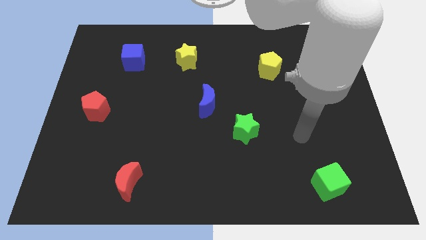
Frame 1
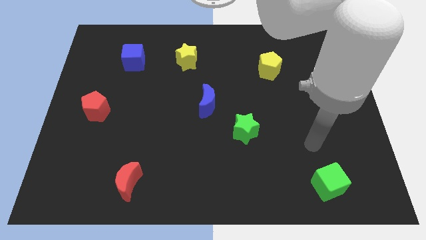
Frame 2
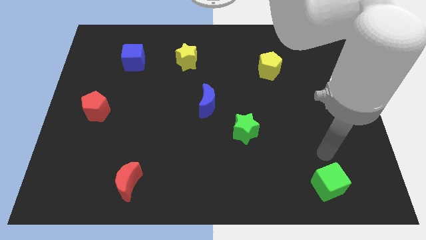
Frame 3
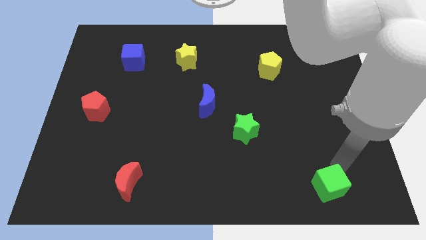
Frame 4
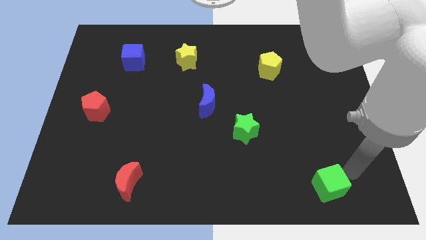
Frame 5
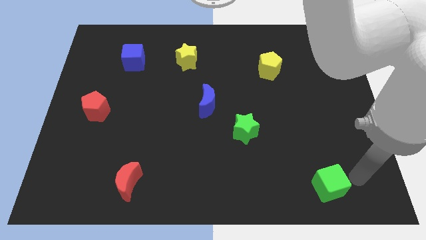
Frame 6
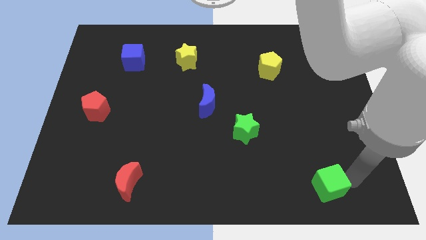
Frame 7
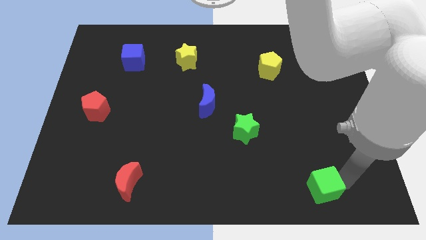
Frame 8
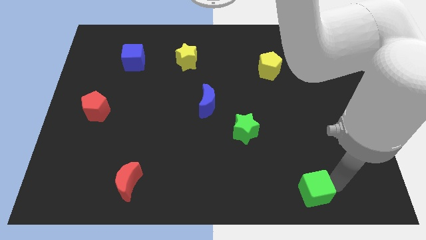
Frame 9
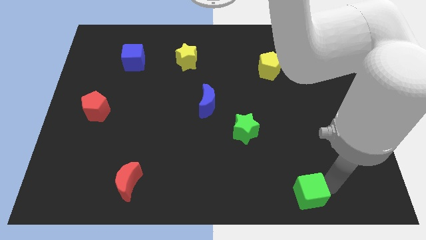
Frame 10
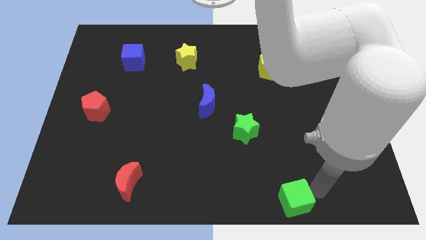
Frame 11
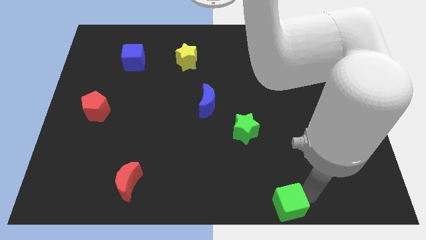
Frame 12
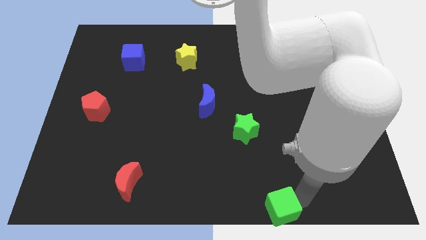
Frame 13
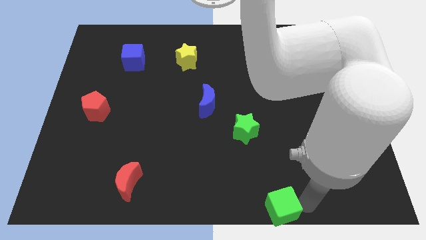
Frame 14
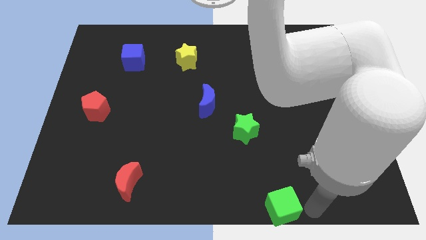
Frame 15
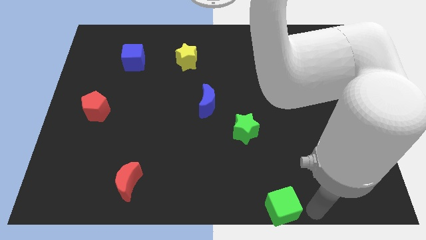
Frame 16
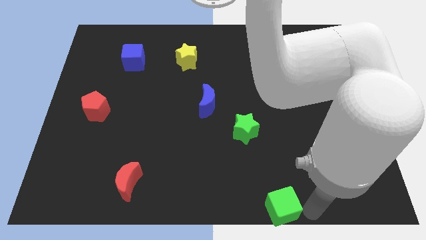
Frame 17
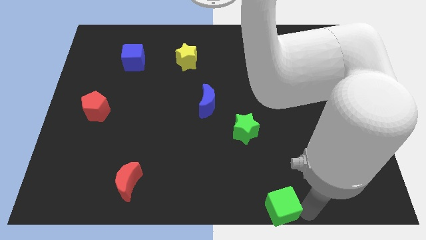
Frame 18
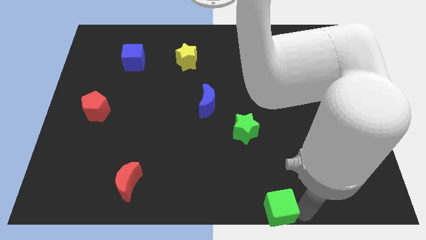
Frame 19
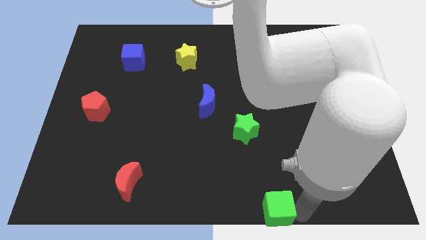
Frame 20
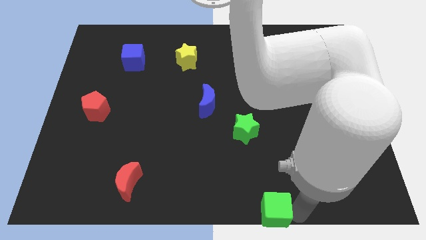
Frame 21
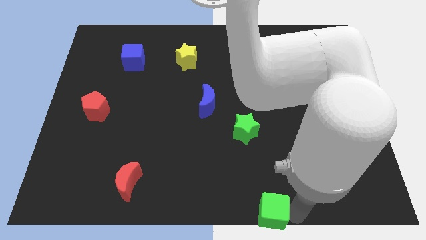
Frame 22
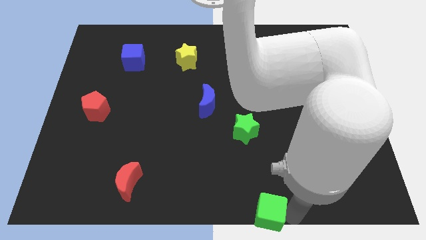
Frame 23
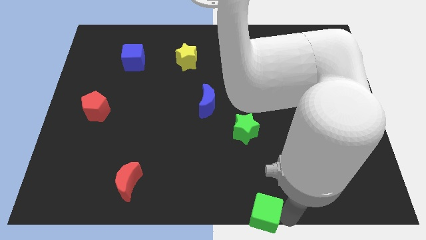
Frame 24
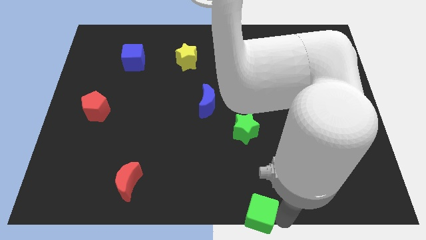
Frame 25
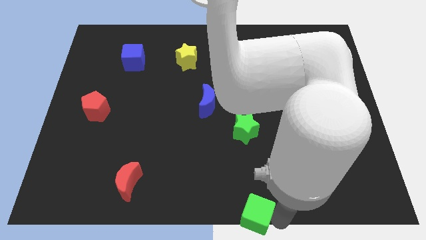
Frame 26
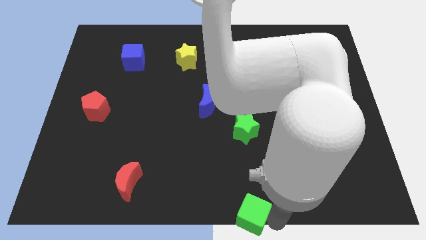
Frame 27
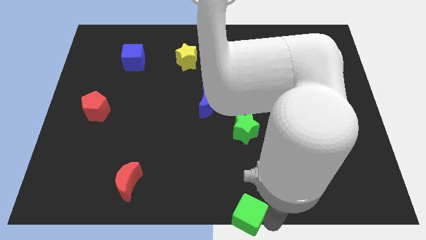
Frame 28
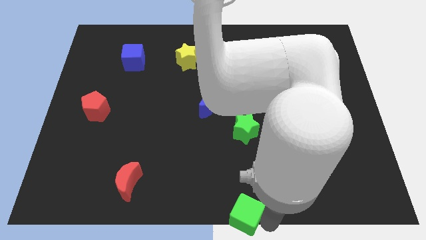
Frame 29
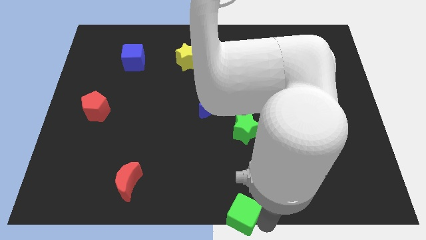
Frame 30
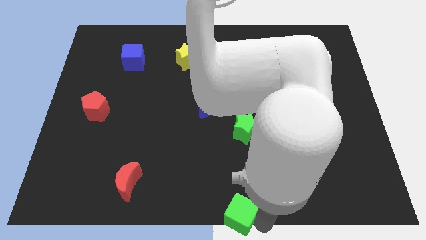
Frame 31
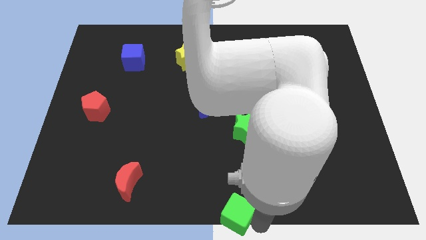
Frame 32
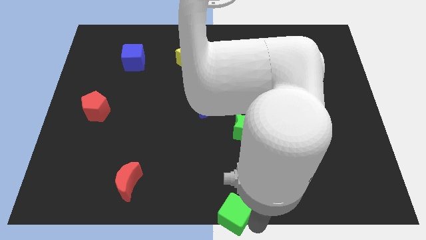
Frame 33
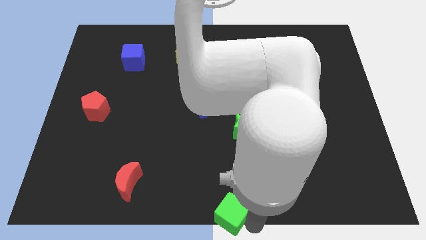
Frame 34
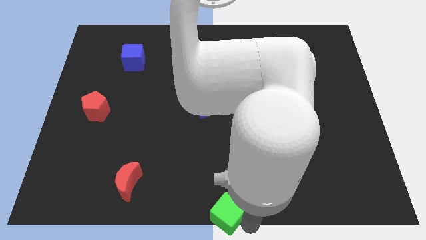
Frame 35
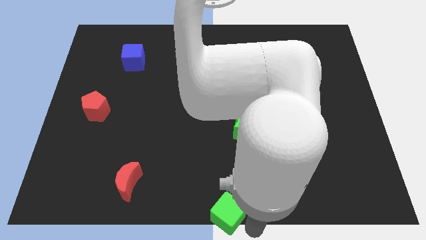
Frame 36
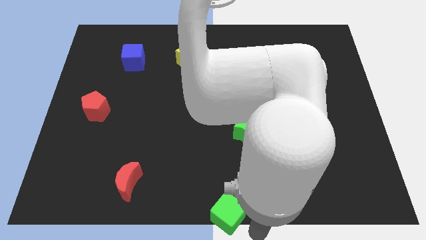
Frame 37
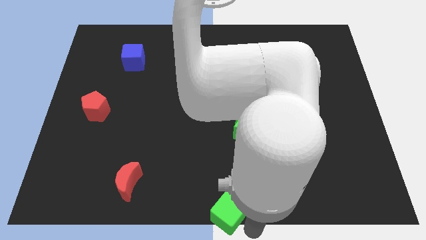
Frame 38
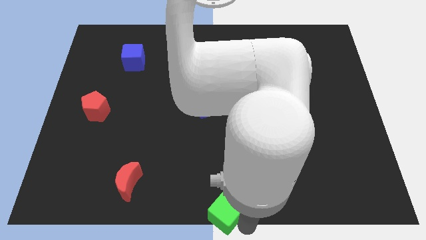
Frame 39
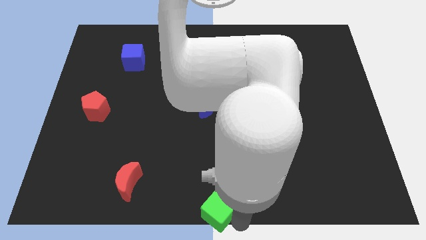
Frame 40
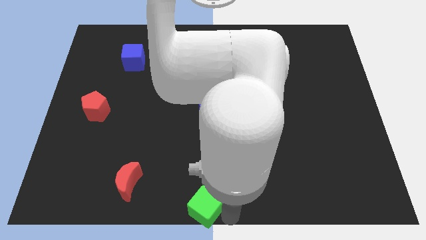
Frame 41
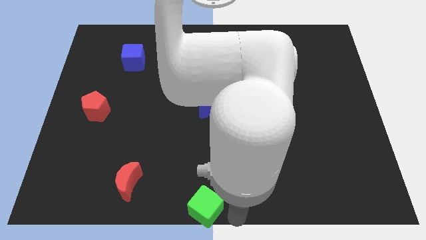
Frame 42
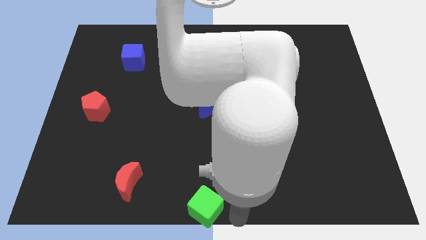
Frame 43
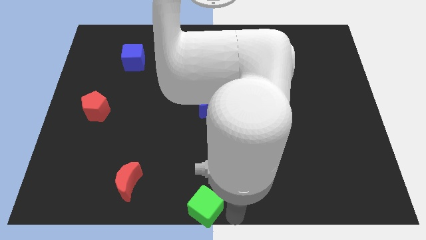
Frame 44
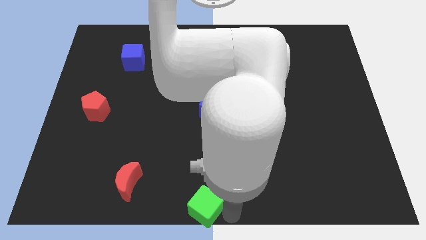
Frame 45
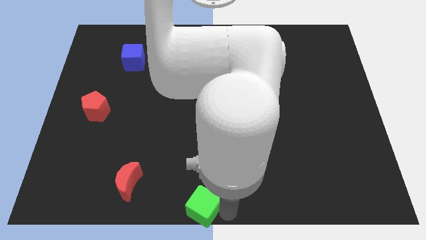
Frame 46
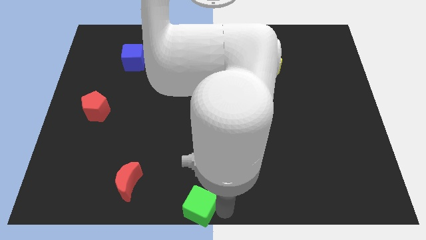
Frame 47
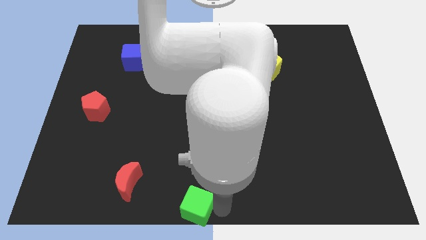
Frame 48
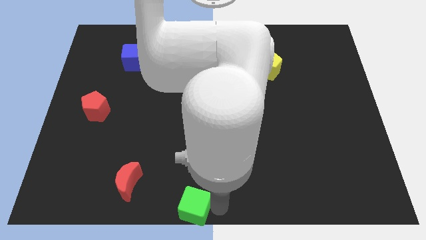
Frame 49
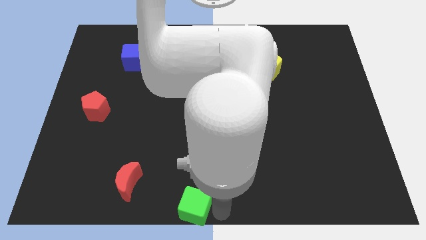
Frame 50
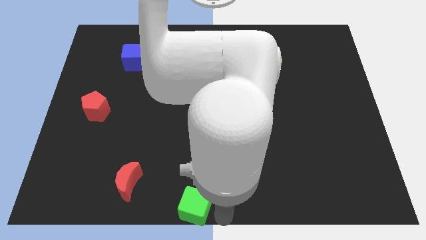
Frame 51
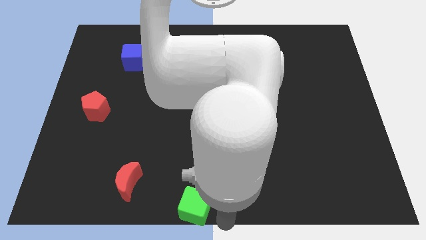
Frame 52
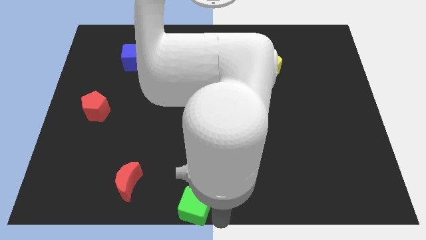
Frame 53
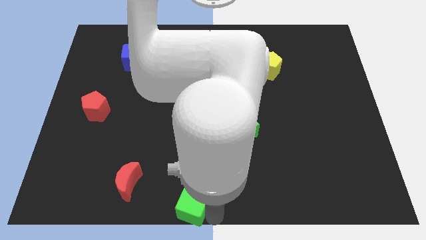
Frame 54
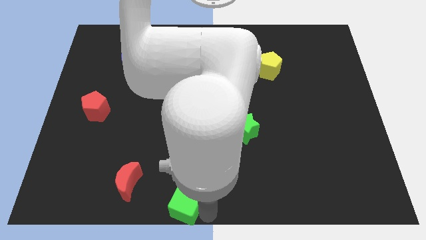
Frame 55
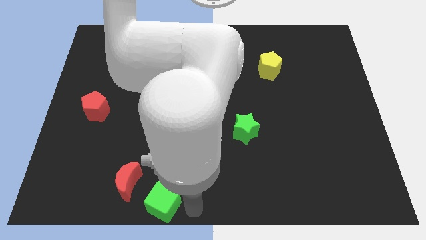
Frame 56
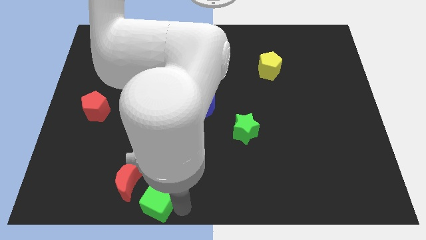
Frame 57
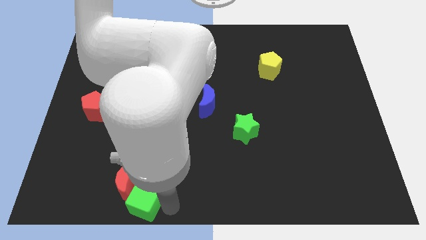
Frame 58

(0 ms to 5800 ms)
put the green cube next to the red moon

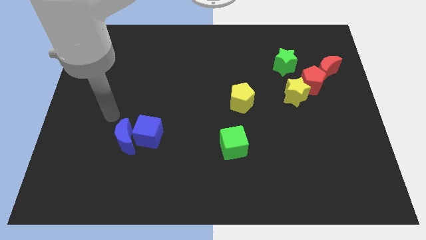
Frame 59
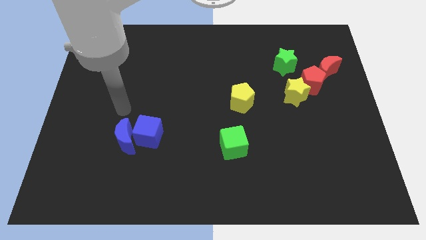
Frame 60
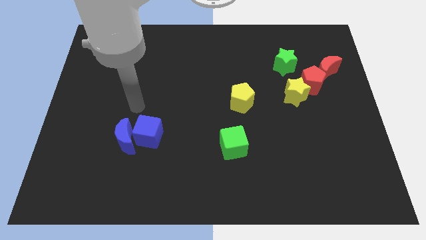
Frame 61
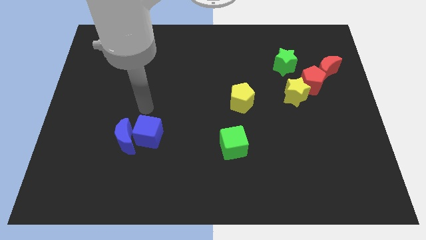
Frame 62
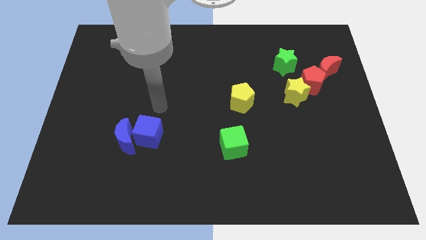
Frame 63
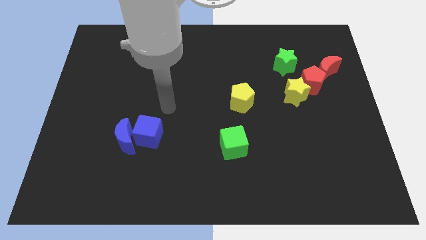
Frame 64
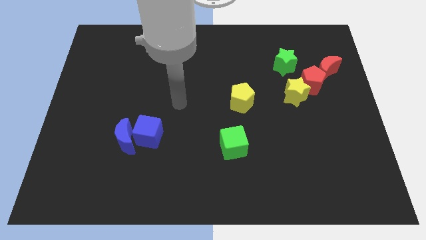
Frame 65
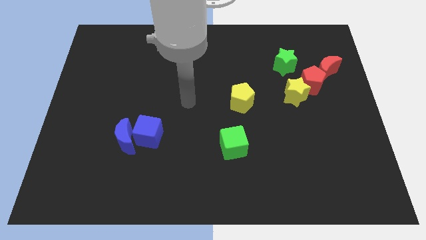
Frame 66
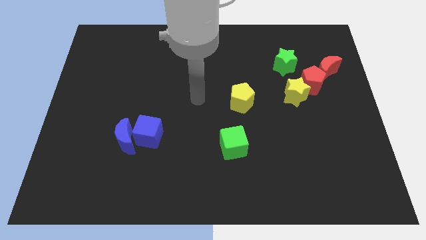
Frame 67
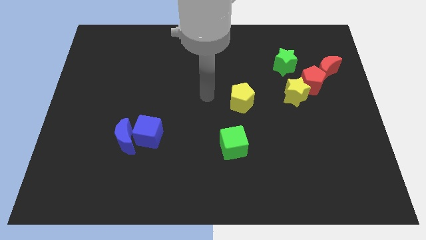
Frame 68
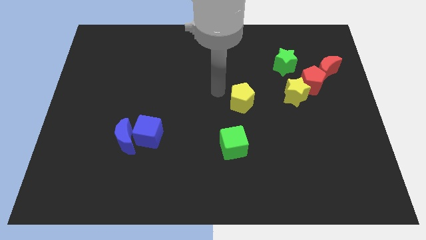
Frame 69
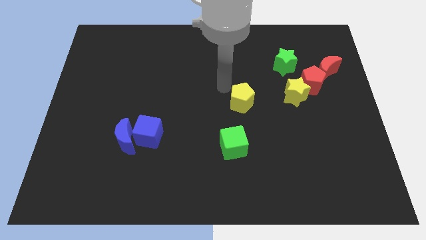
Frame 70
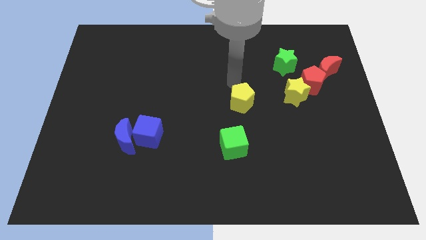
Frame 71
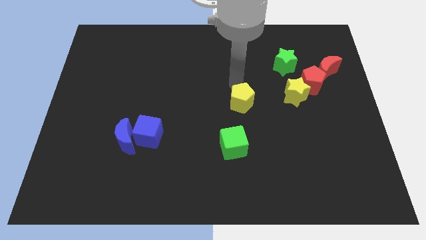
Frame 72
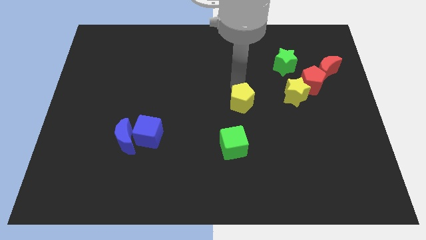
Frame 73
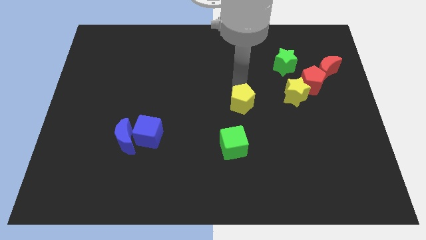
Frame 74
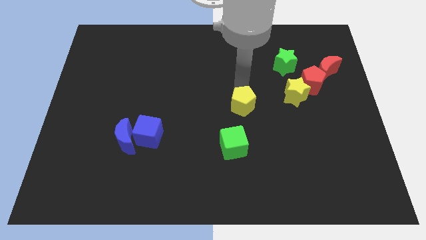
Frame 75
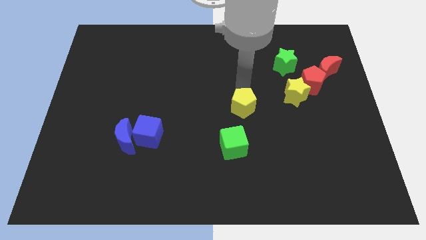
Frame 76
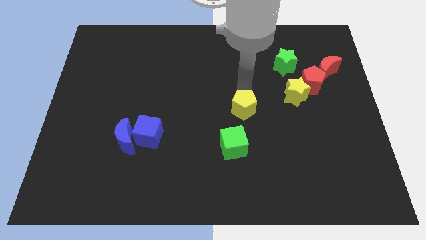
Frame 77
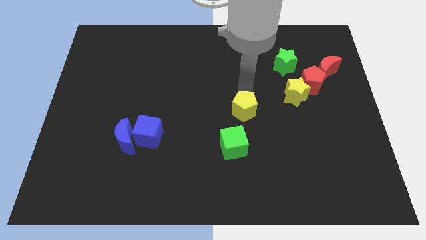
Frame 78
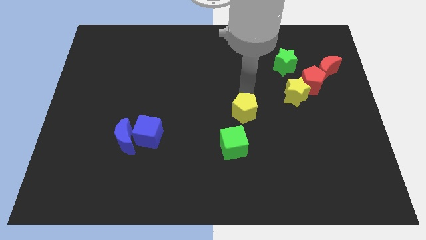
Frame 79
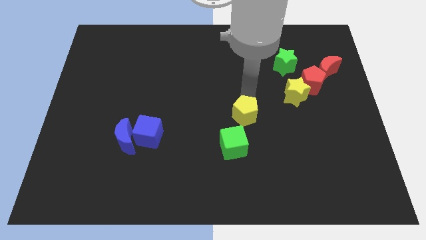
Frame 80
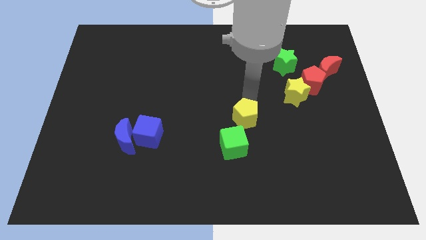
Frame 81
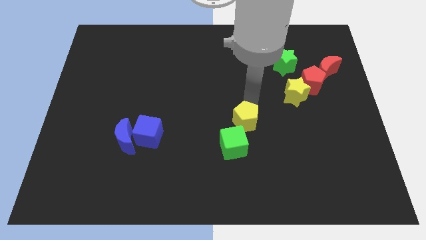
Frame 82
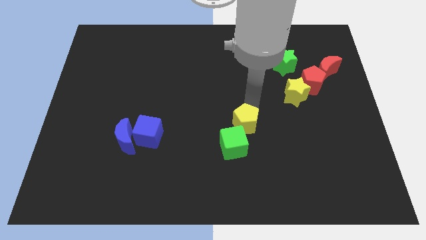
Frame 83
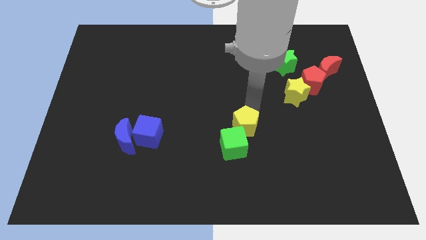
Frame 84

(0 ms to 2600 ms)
put the yellow pentagon next to the green cube
